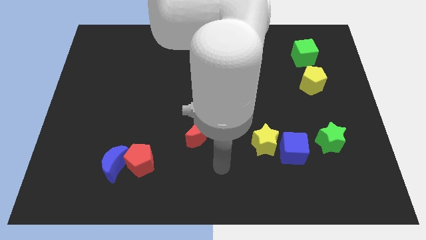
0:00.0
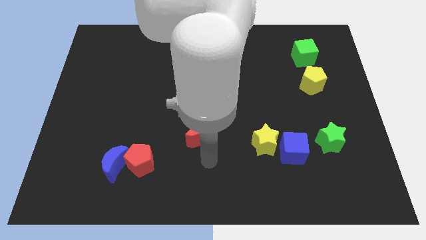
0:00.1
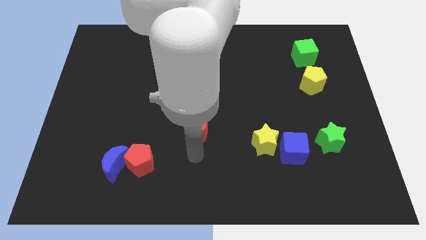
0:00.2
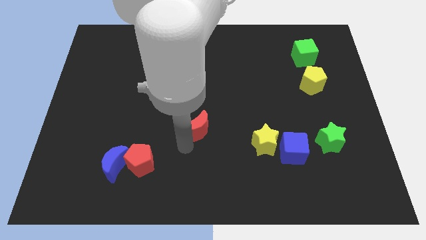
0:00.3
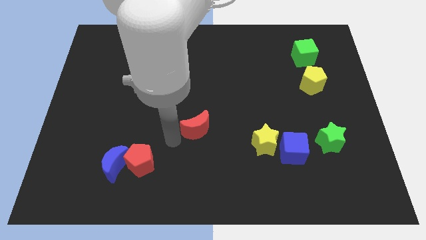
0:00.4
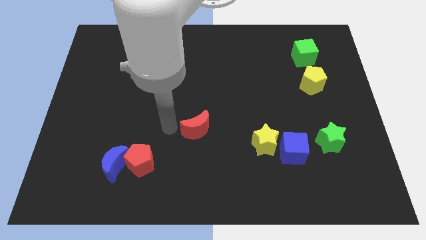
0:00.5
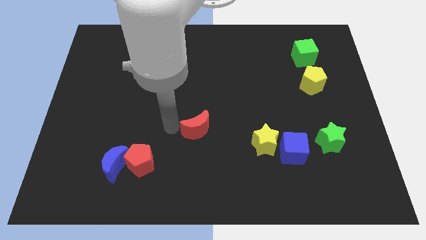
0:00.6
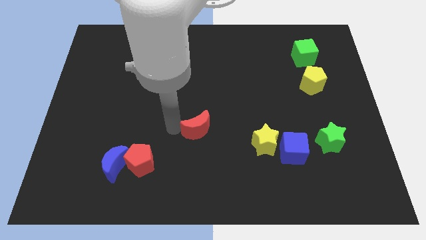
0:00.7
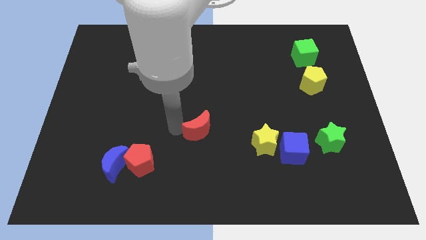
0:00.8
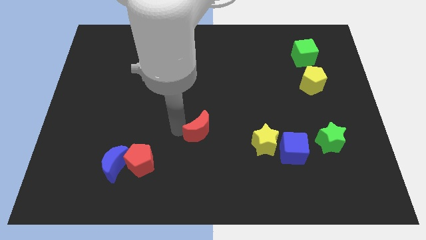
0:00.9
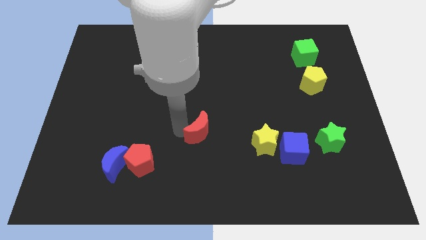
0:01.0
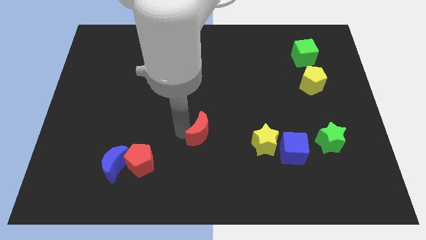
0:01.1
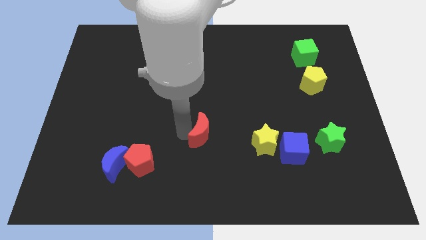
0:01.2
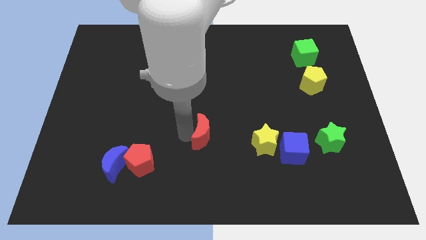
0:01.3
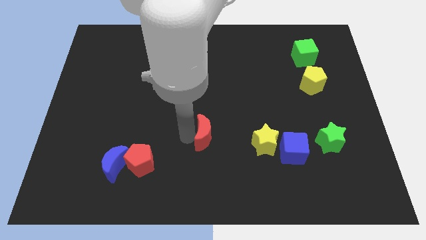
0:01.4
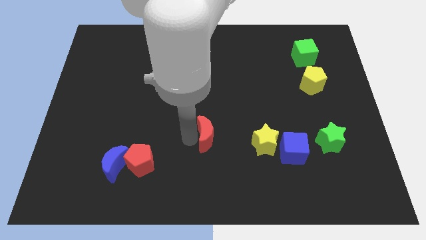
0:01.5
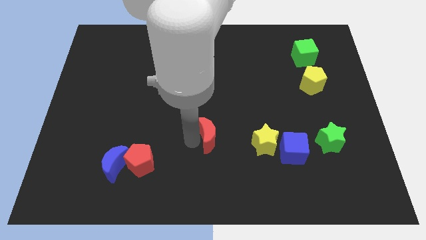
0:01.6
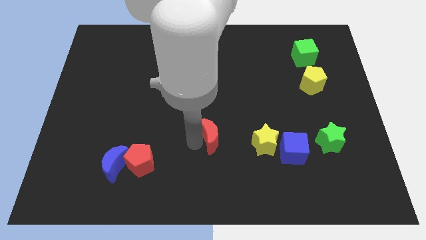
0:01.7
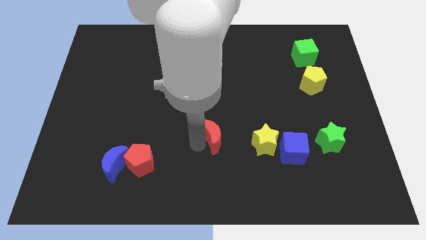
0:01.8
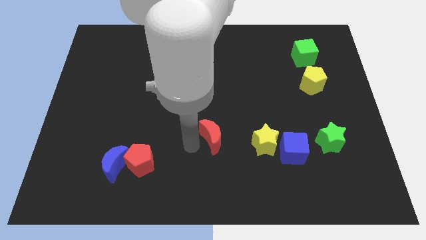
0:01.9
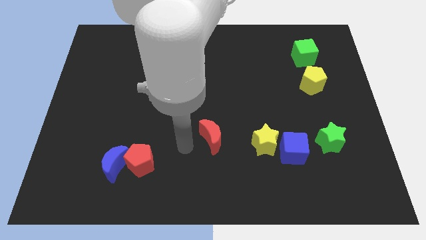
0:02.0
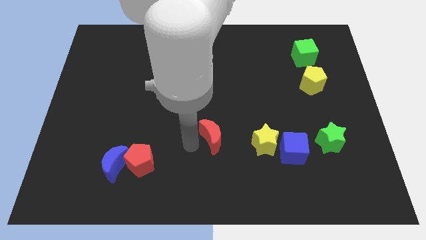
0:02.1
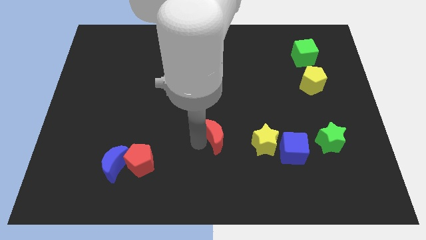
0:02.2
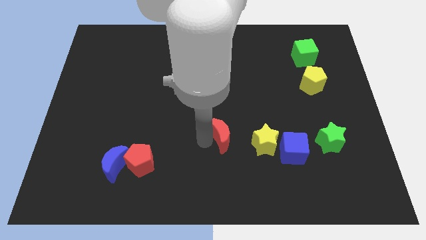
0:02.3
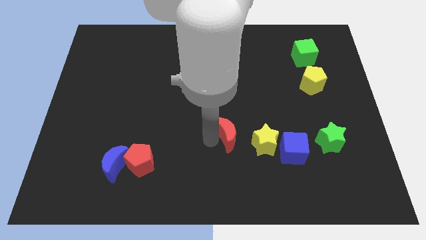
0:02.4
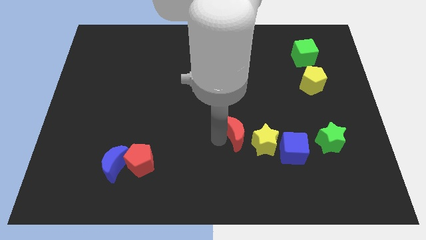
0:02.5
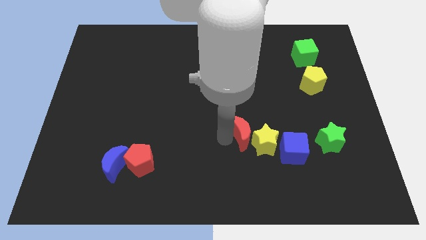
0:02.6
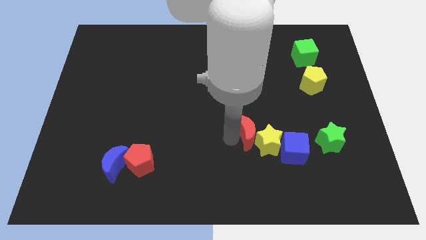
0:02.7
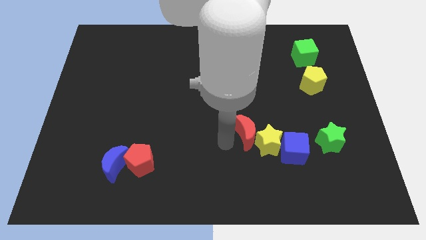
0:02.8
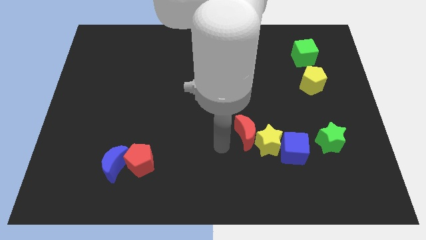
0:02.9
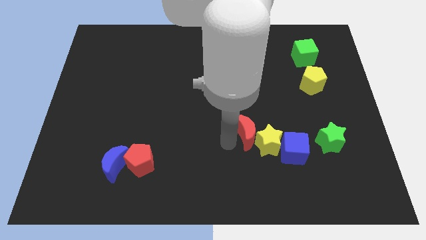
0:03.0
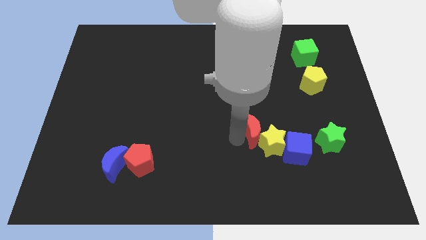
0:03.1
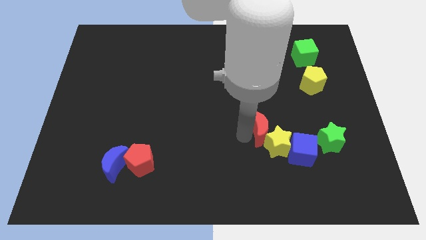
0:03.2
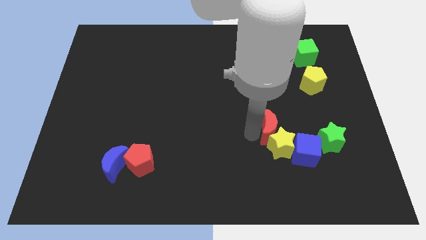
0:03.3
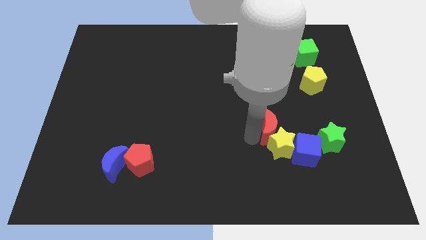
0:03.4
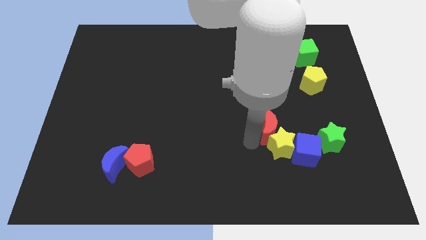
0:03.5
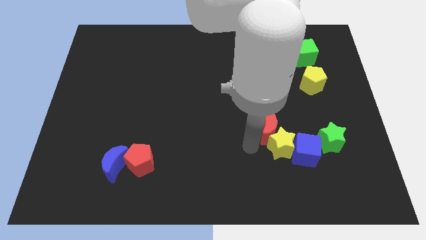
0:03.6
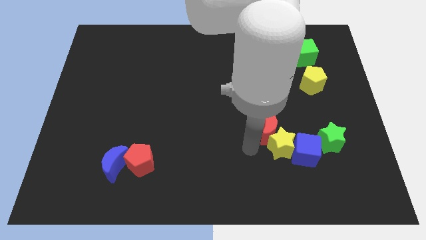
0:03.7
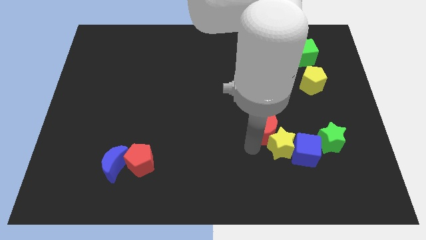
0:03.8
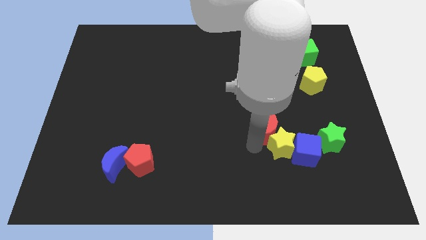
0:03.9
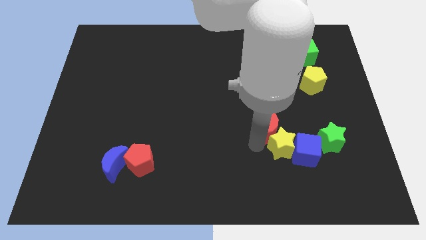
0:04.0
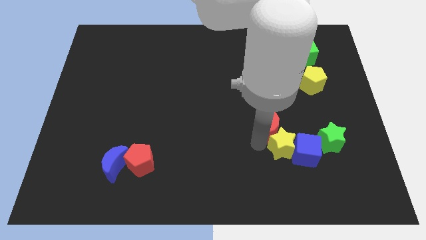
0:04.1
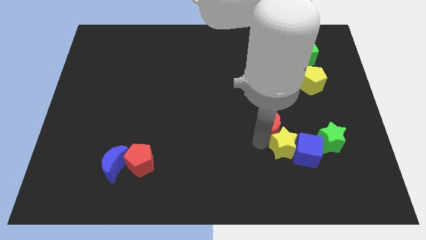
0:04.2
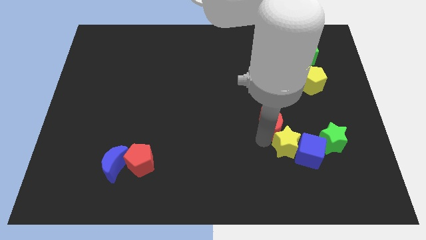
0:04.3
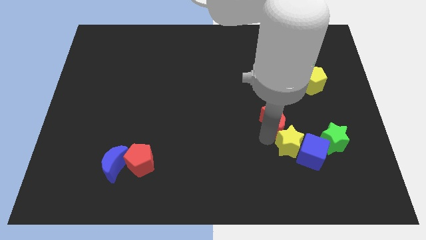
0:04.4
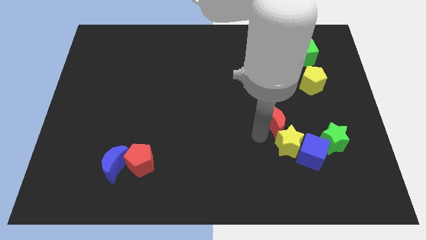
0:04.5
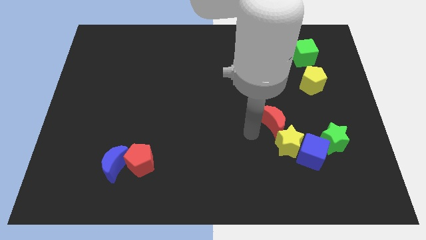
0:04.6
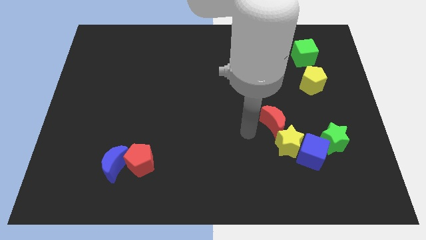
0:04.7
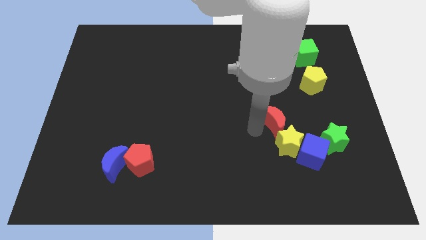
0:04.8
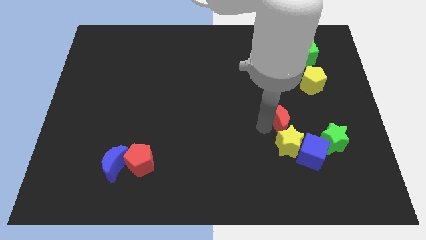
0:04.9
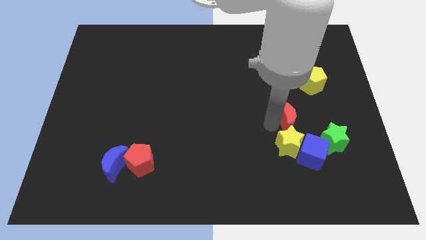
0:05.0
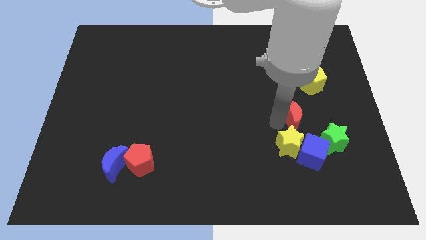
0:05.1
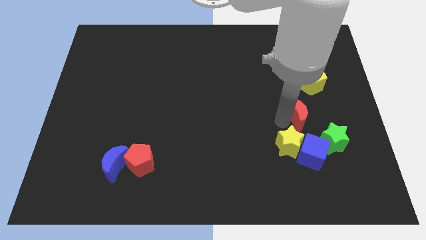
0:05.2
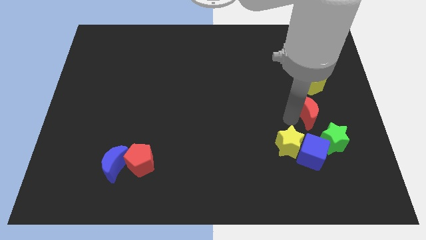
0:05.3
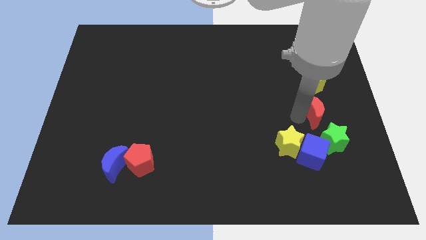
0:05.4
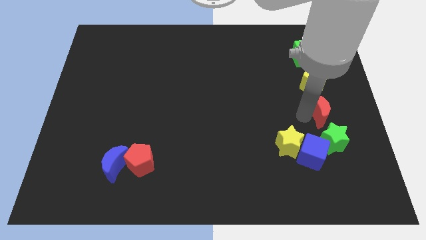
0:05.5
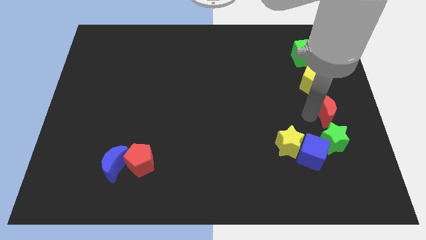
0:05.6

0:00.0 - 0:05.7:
put the red moon to the right side of the board

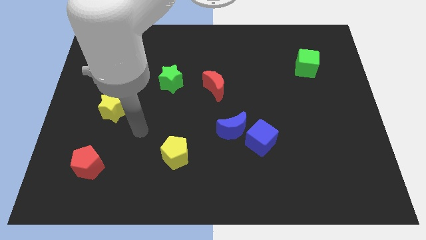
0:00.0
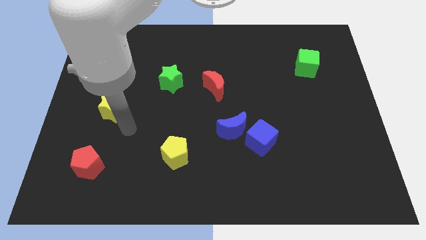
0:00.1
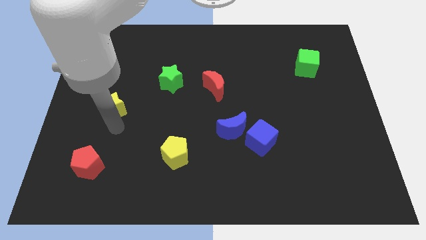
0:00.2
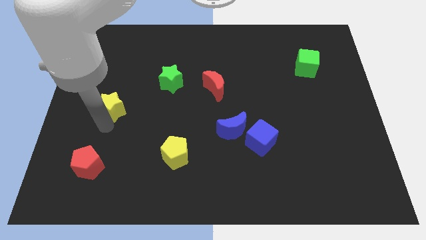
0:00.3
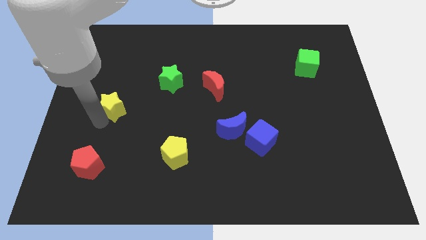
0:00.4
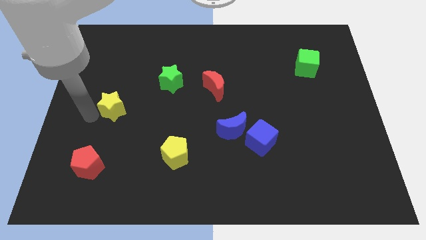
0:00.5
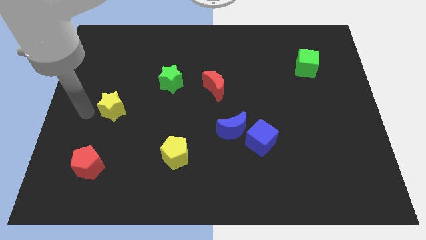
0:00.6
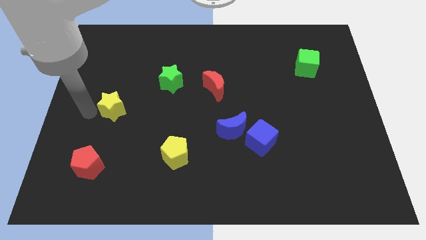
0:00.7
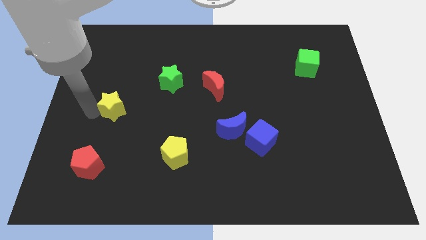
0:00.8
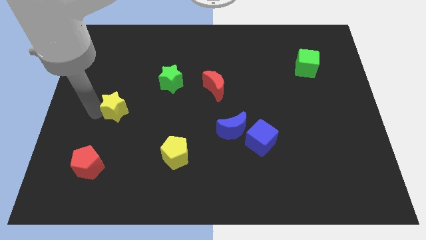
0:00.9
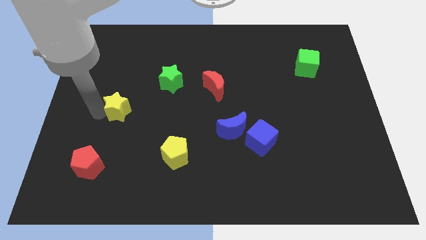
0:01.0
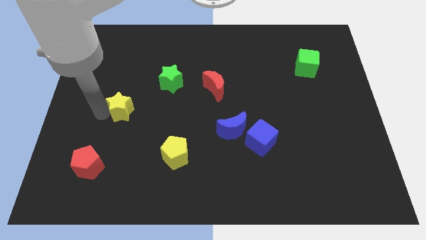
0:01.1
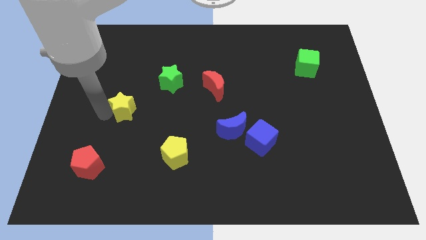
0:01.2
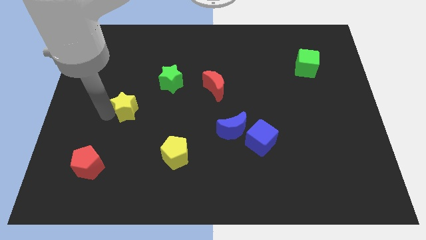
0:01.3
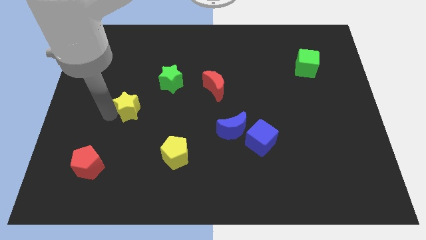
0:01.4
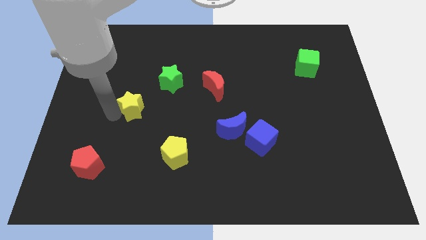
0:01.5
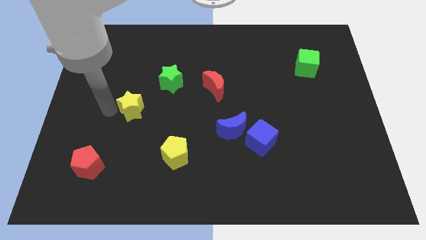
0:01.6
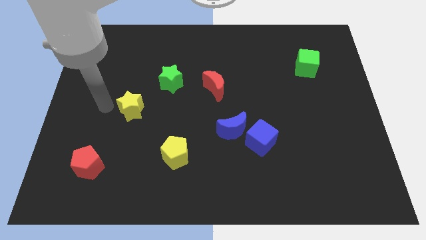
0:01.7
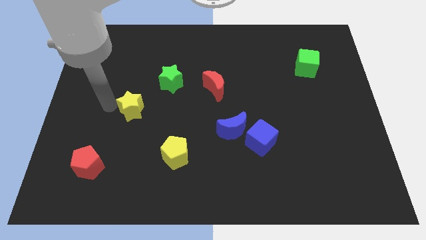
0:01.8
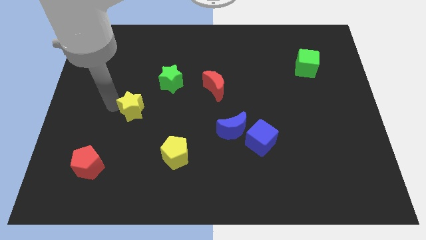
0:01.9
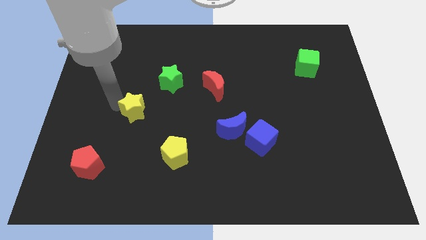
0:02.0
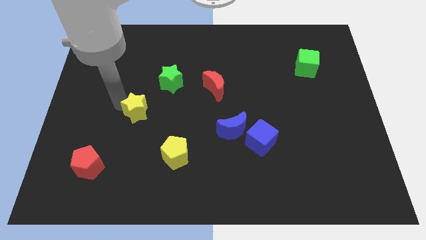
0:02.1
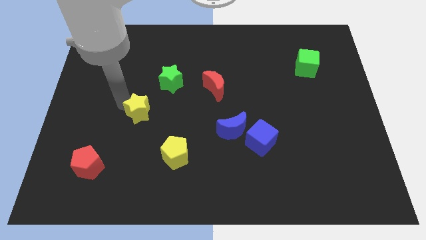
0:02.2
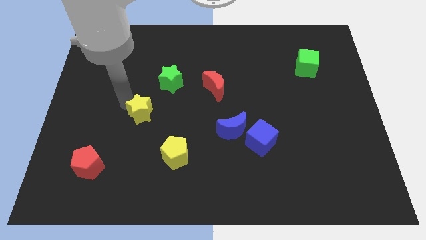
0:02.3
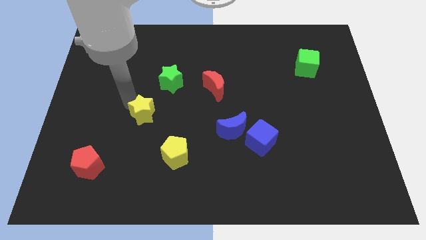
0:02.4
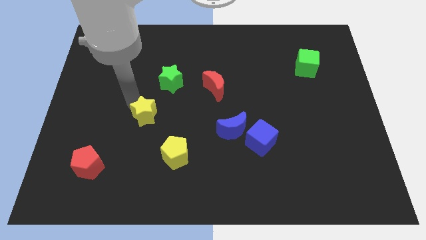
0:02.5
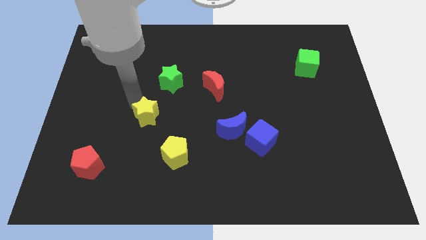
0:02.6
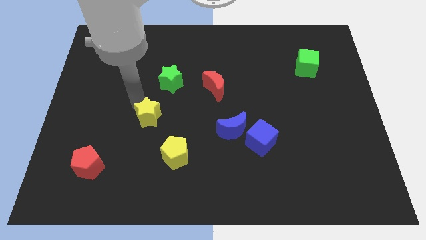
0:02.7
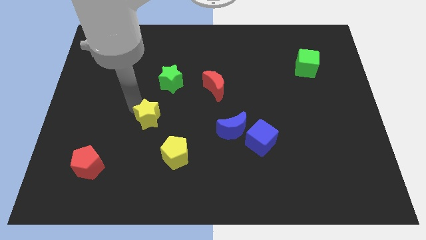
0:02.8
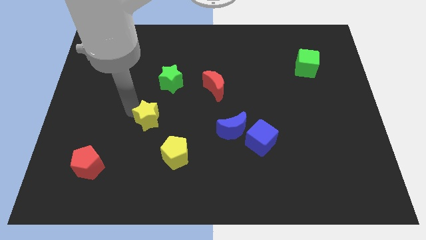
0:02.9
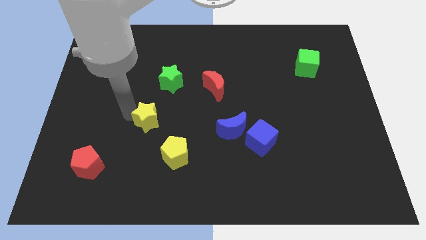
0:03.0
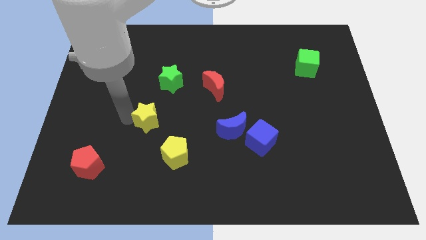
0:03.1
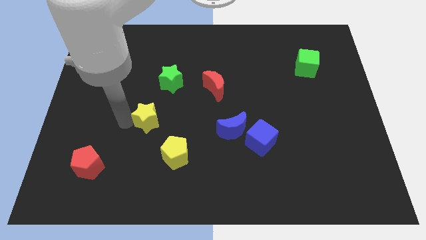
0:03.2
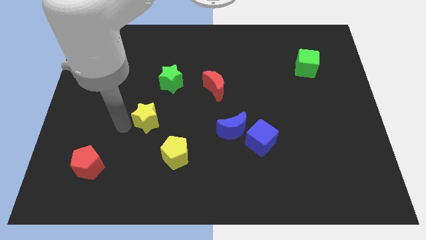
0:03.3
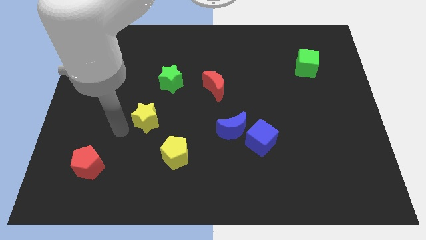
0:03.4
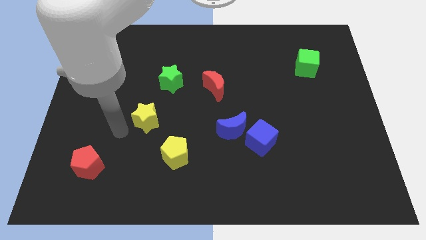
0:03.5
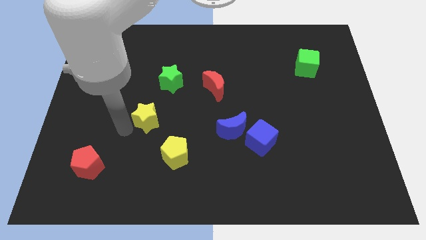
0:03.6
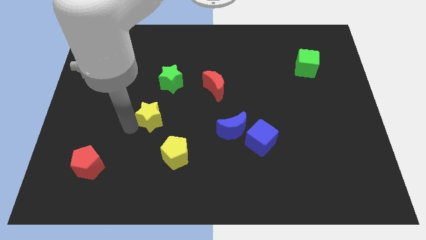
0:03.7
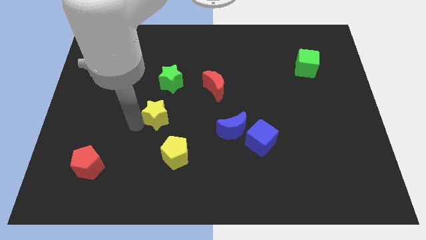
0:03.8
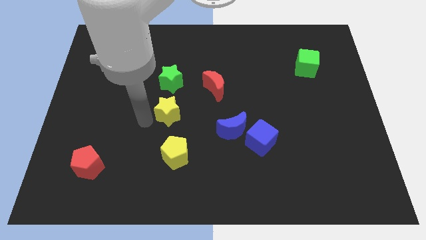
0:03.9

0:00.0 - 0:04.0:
push the yellow star to the center of the board
